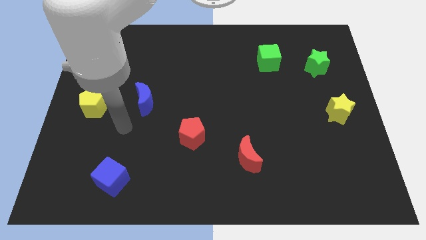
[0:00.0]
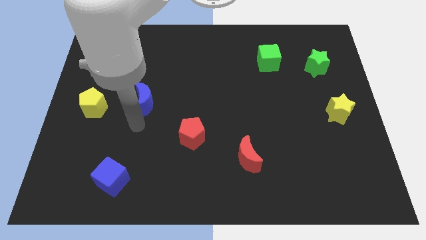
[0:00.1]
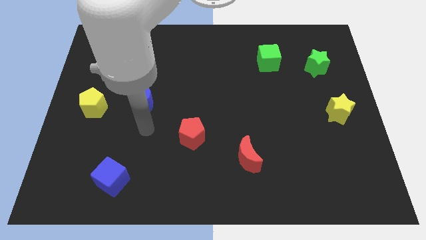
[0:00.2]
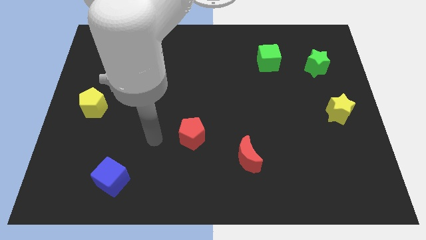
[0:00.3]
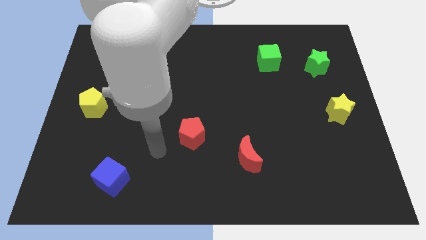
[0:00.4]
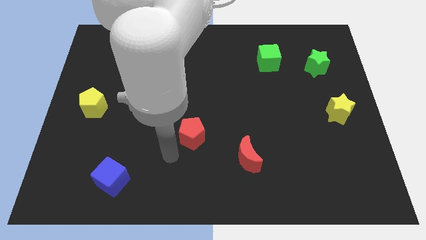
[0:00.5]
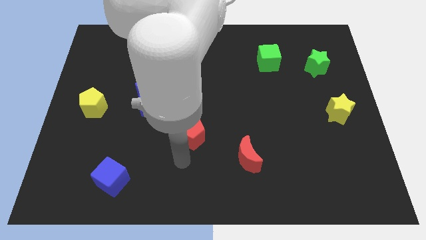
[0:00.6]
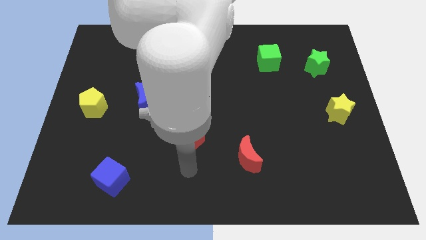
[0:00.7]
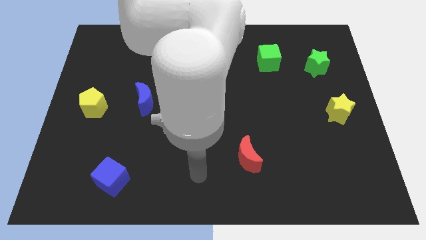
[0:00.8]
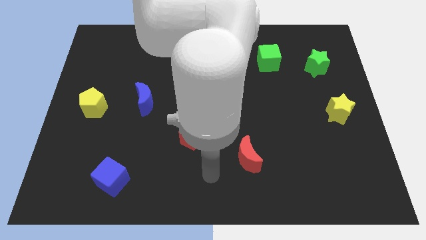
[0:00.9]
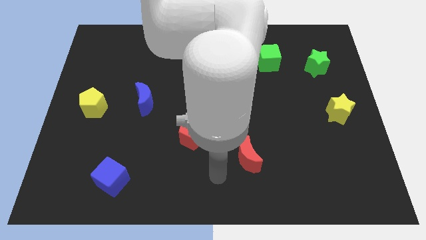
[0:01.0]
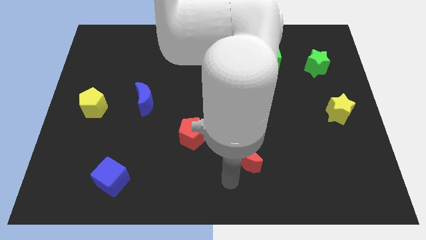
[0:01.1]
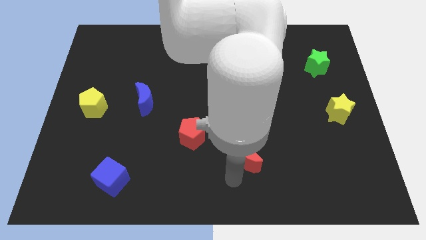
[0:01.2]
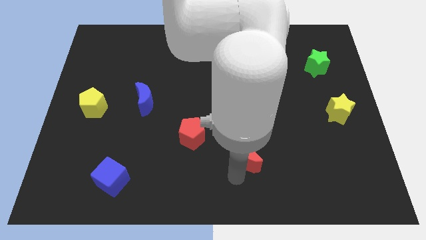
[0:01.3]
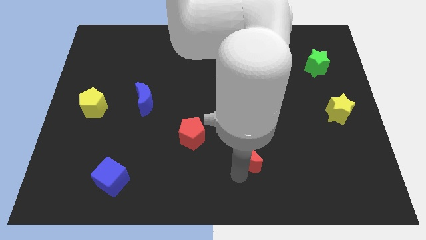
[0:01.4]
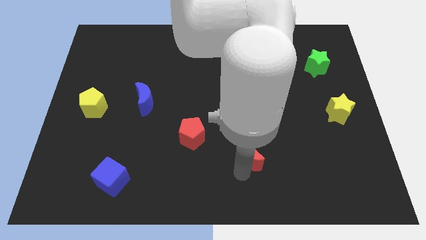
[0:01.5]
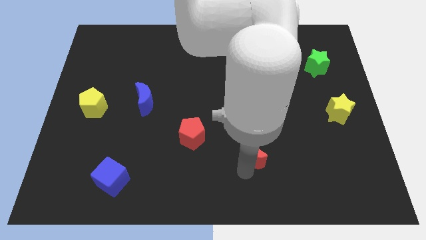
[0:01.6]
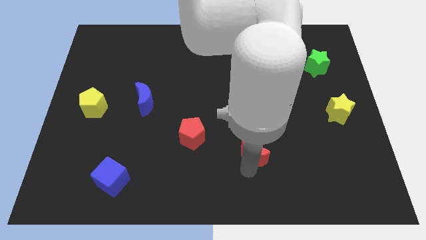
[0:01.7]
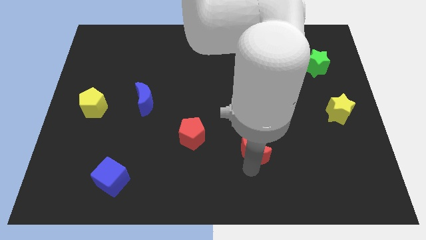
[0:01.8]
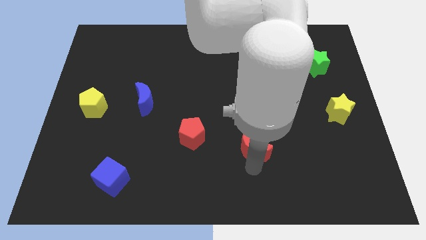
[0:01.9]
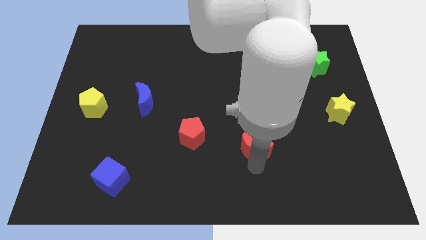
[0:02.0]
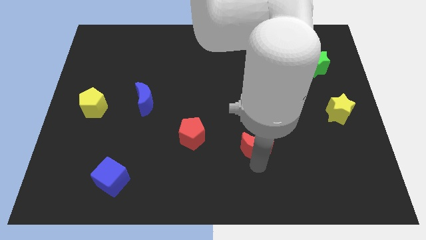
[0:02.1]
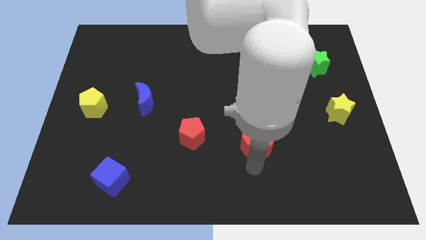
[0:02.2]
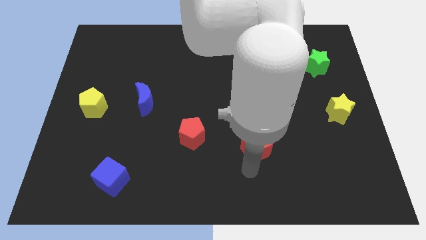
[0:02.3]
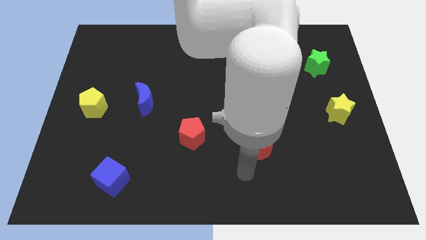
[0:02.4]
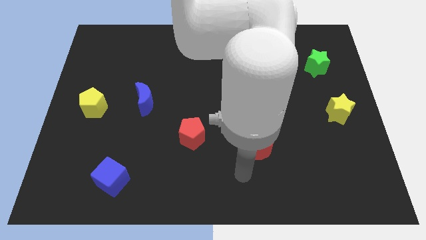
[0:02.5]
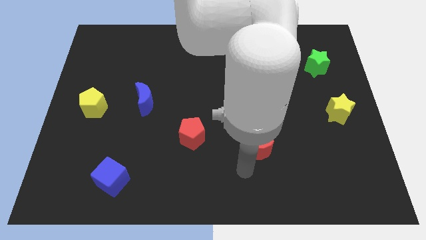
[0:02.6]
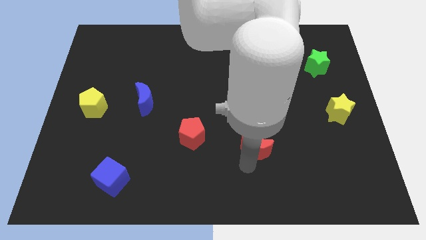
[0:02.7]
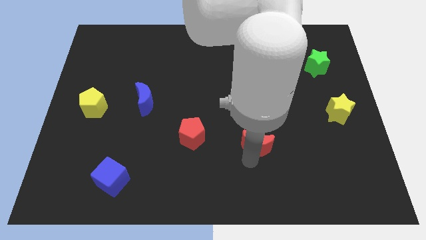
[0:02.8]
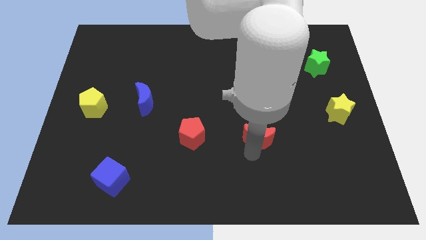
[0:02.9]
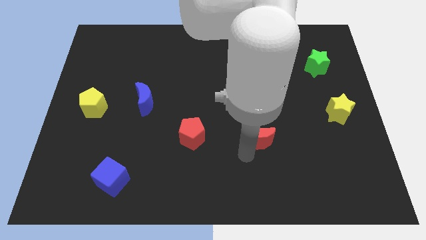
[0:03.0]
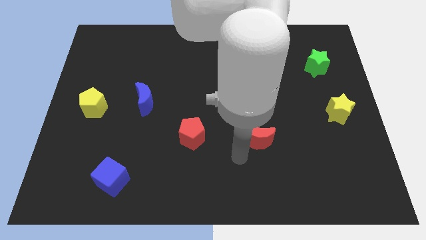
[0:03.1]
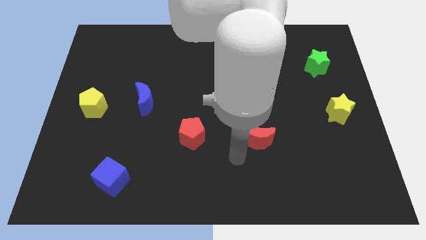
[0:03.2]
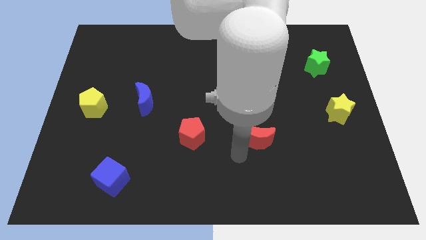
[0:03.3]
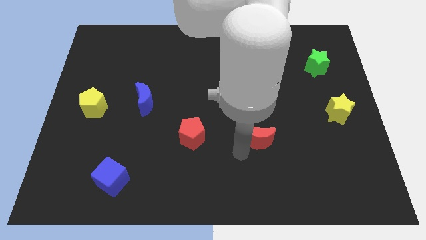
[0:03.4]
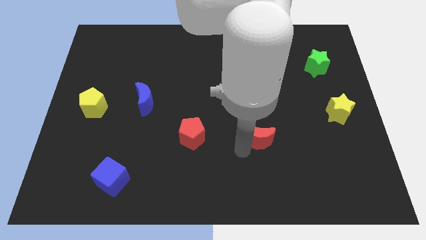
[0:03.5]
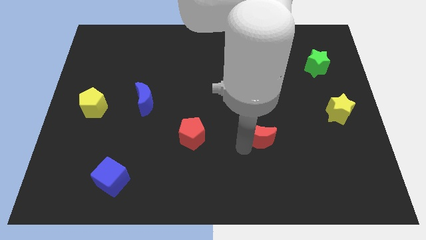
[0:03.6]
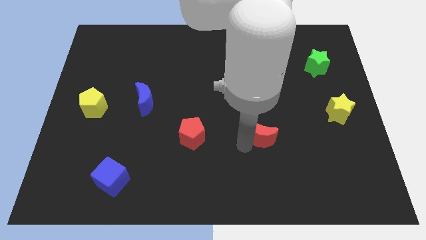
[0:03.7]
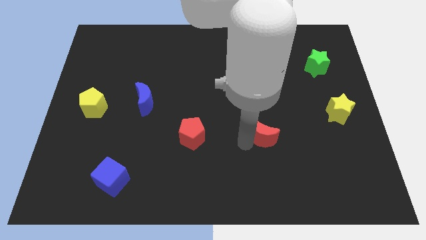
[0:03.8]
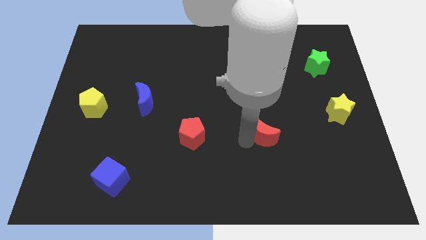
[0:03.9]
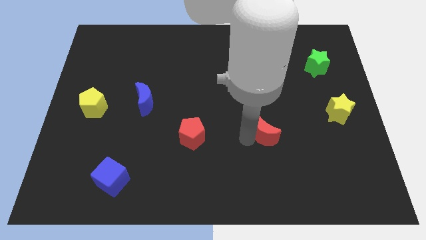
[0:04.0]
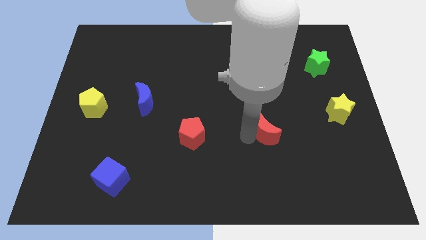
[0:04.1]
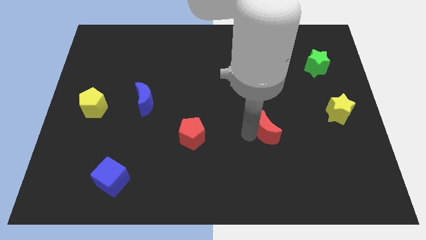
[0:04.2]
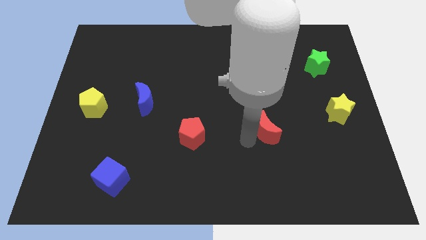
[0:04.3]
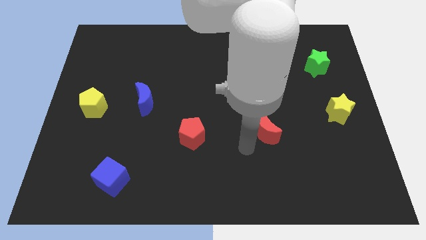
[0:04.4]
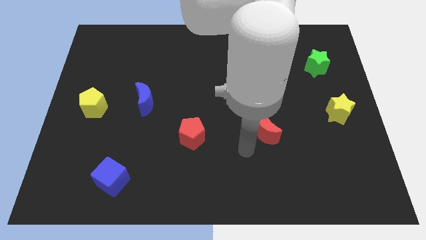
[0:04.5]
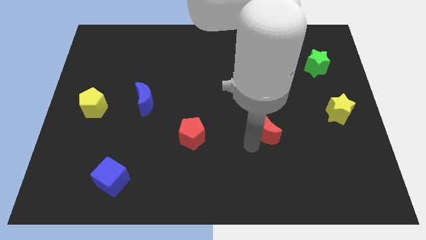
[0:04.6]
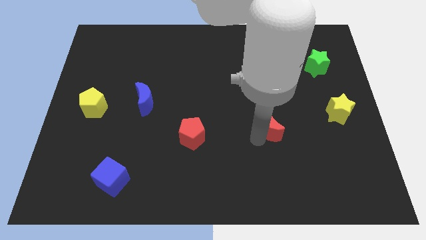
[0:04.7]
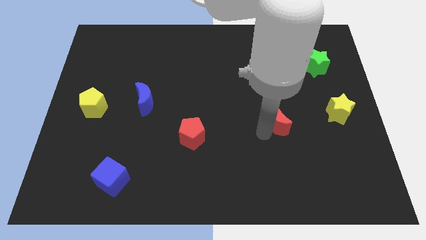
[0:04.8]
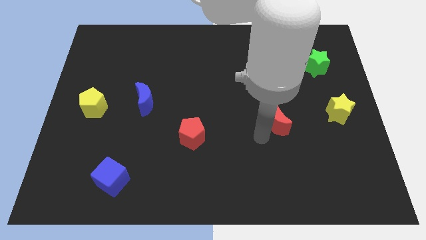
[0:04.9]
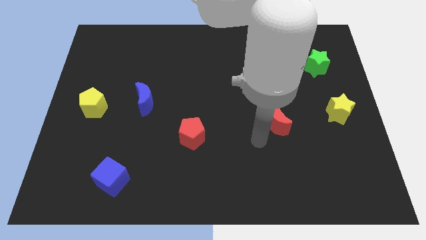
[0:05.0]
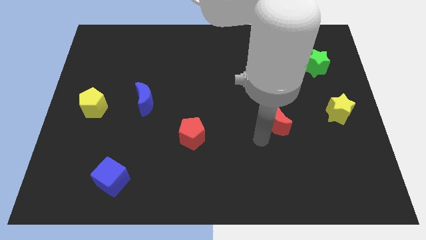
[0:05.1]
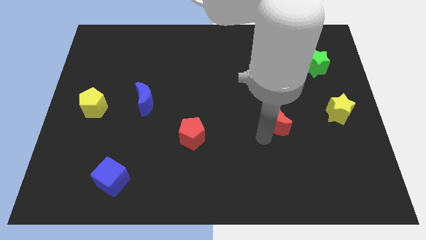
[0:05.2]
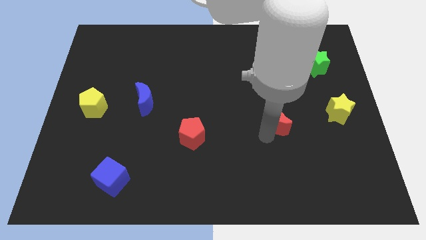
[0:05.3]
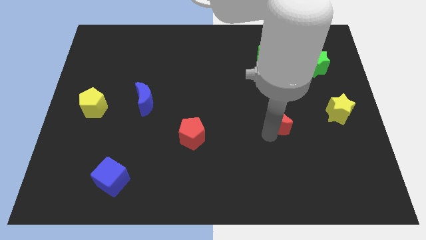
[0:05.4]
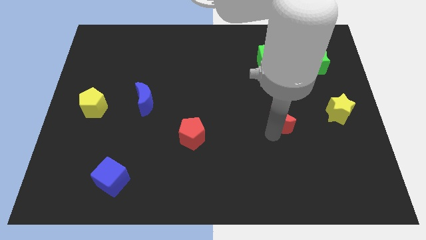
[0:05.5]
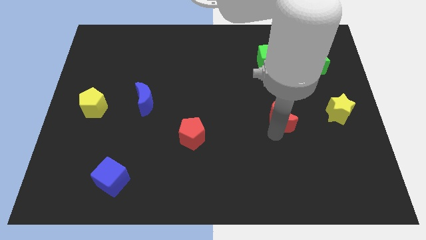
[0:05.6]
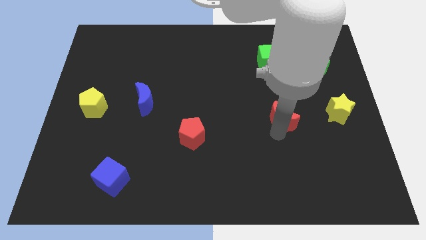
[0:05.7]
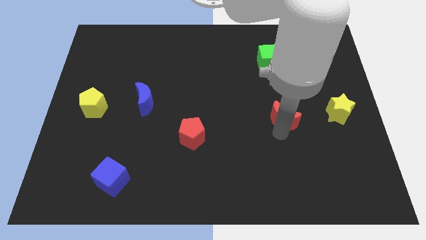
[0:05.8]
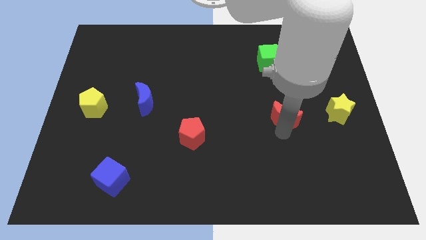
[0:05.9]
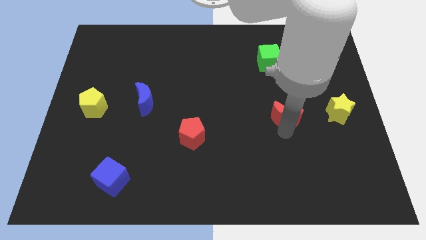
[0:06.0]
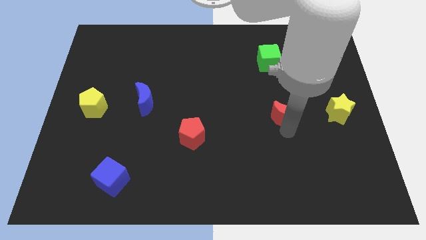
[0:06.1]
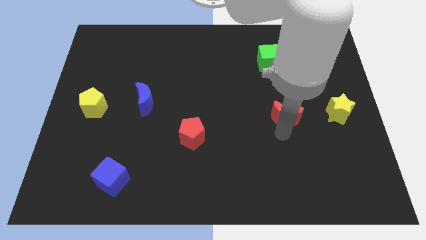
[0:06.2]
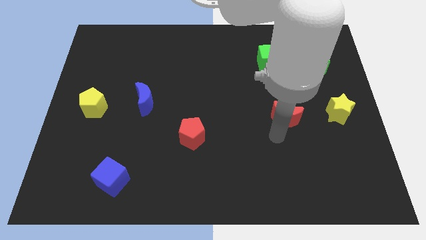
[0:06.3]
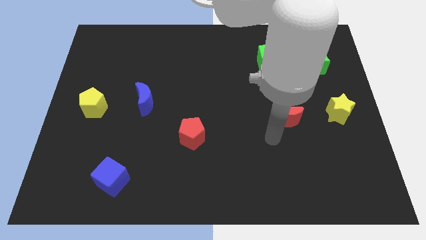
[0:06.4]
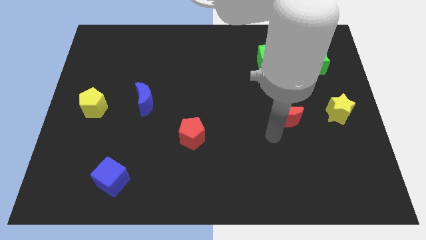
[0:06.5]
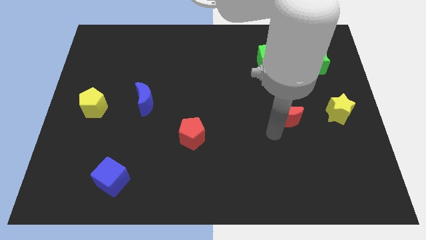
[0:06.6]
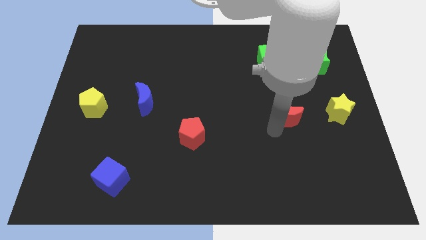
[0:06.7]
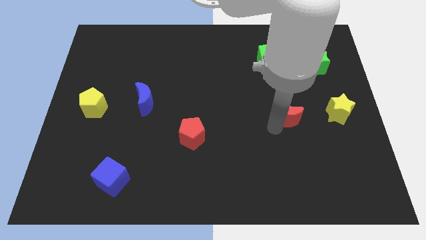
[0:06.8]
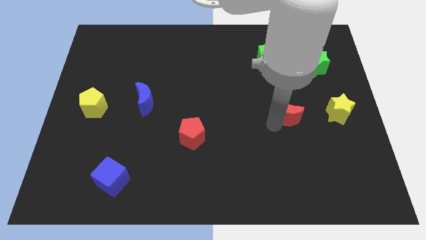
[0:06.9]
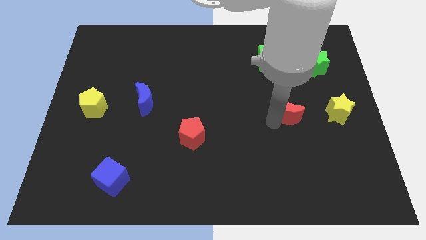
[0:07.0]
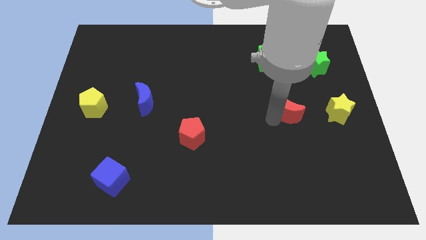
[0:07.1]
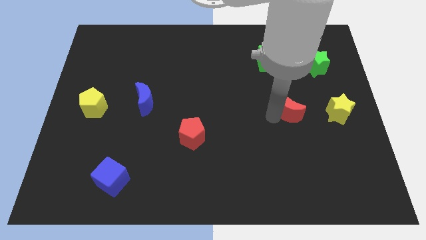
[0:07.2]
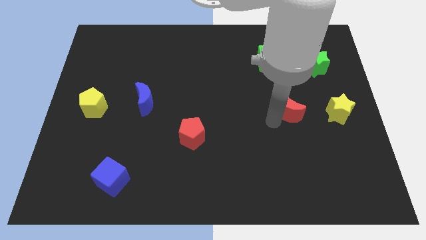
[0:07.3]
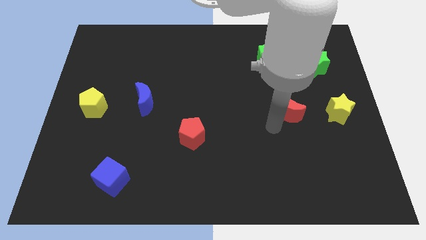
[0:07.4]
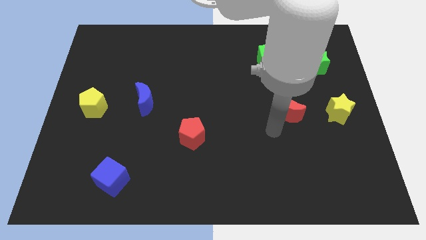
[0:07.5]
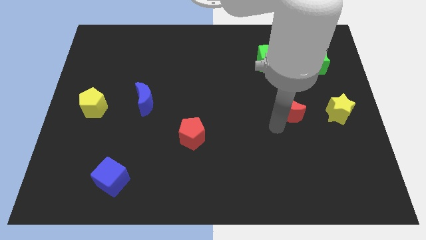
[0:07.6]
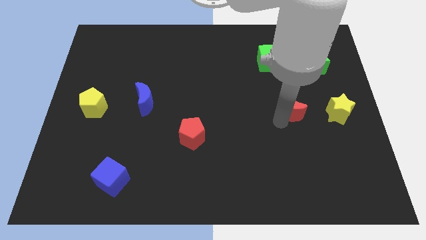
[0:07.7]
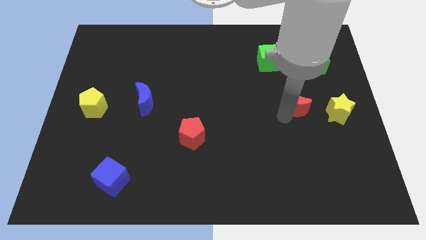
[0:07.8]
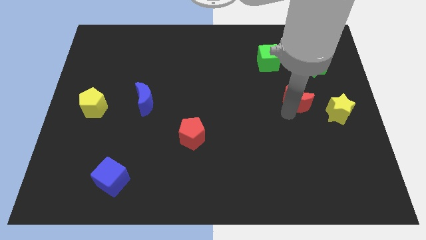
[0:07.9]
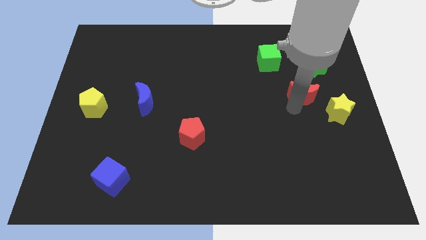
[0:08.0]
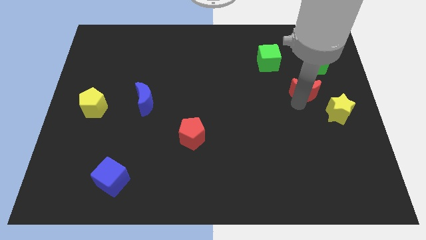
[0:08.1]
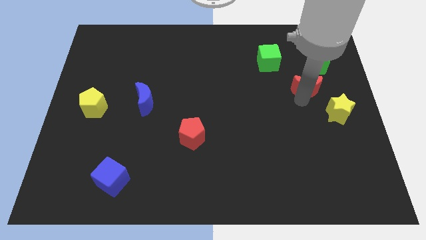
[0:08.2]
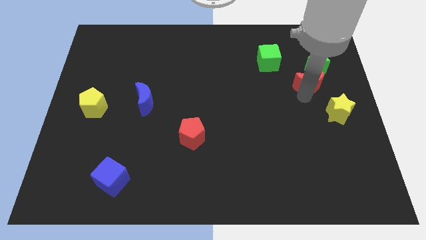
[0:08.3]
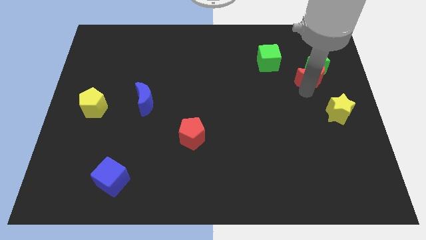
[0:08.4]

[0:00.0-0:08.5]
push the red moon towards the green star
